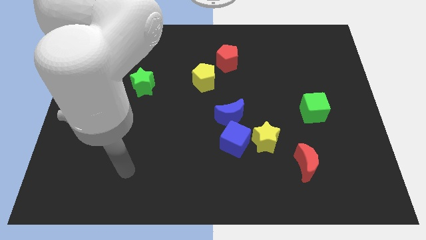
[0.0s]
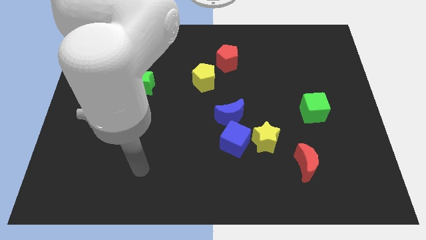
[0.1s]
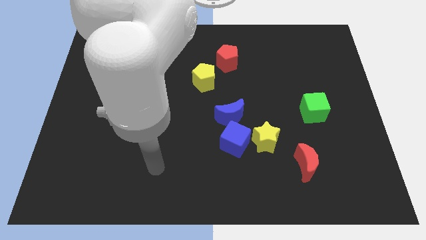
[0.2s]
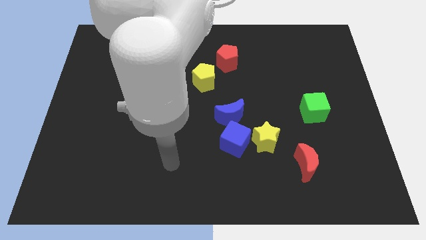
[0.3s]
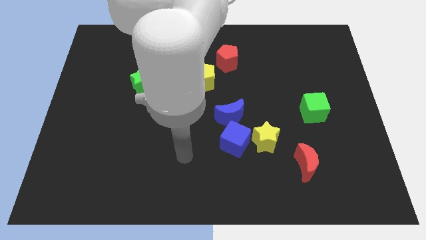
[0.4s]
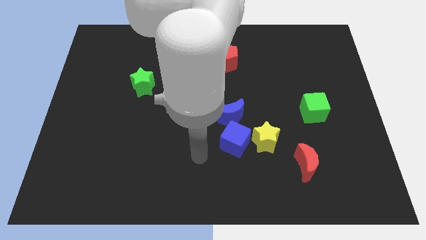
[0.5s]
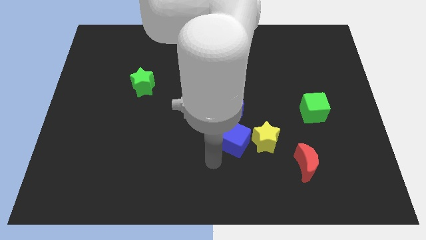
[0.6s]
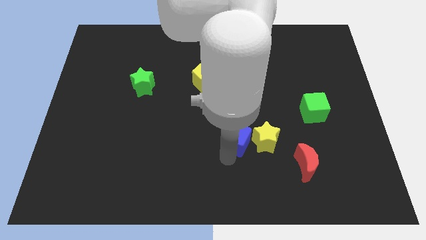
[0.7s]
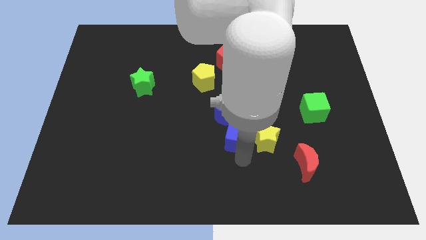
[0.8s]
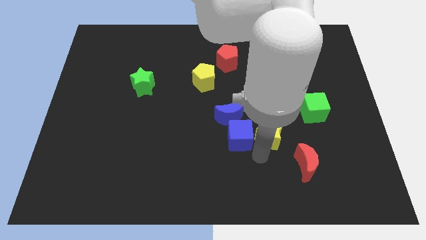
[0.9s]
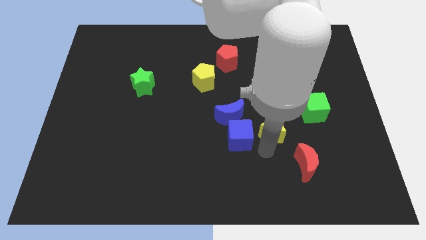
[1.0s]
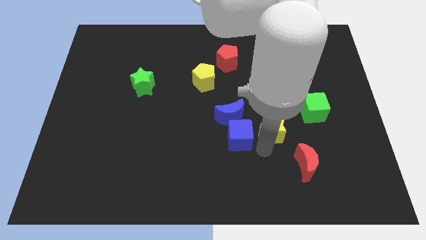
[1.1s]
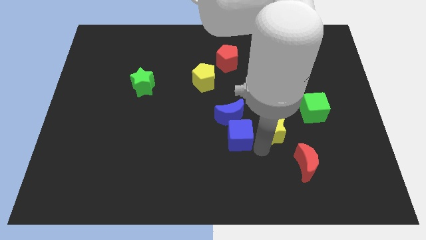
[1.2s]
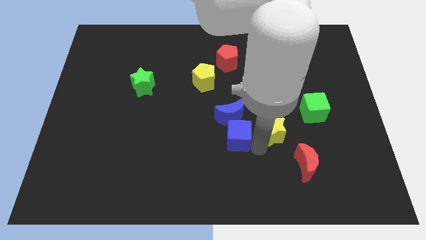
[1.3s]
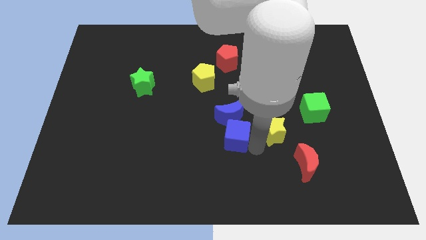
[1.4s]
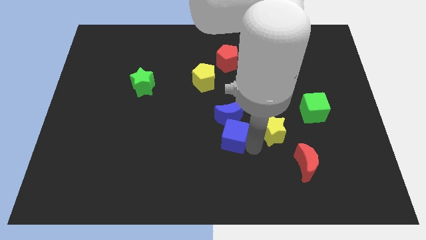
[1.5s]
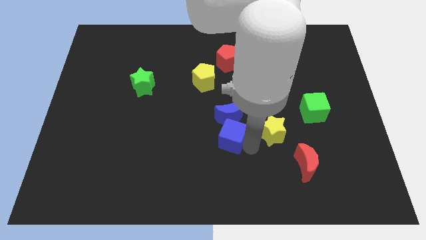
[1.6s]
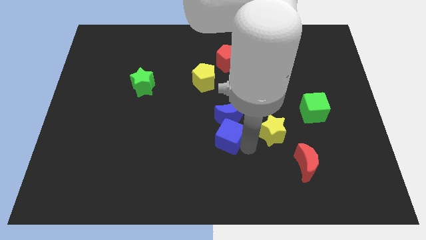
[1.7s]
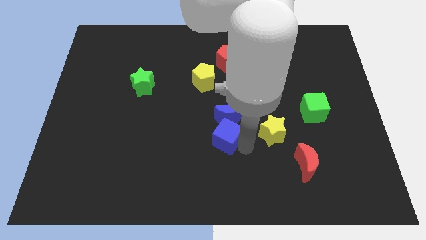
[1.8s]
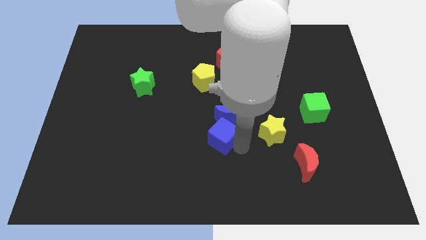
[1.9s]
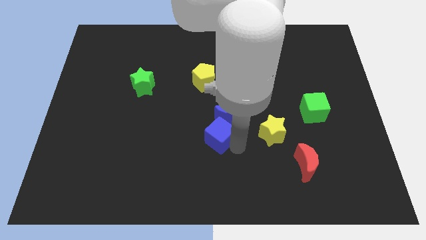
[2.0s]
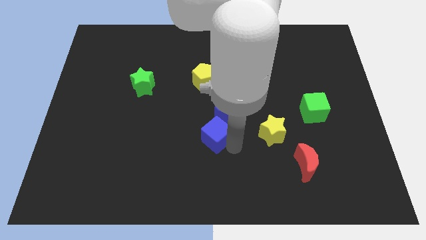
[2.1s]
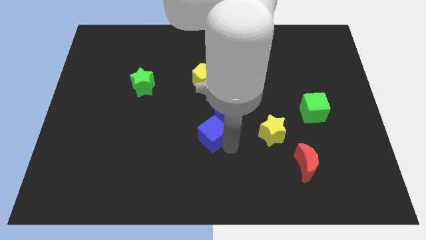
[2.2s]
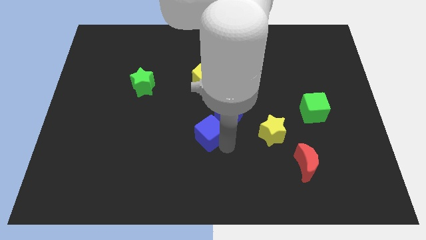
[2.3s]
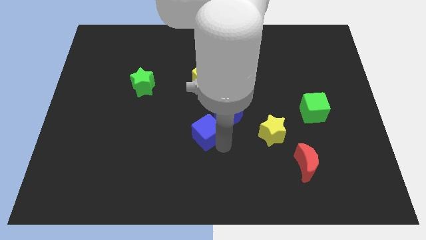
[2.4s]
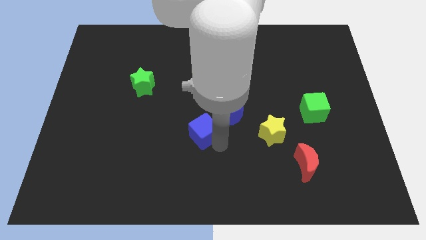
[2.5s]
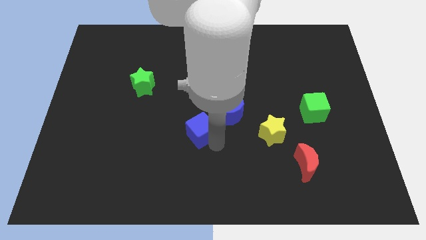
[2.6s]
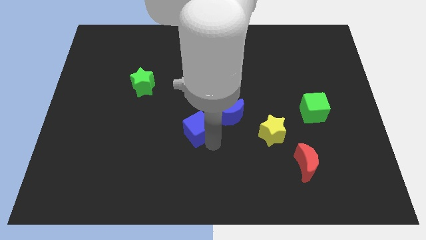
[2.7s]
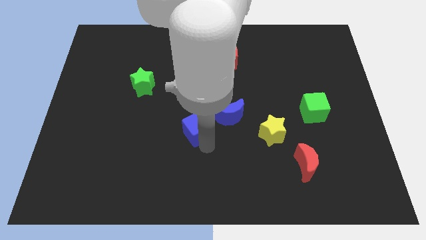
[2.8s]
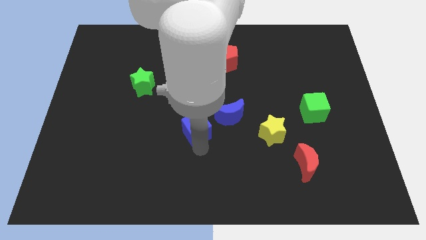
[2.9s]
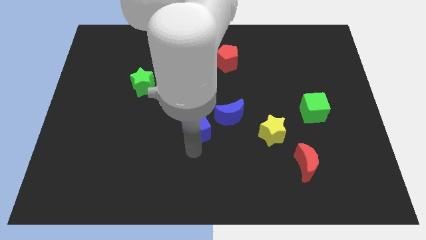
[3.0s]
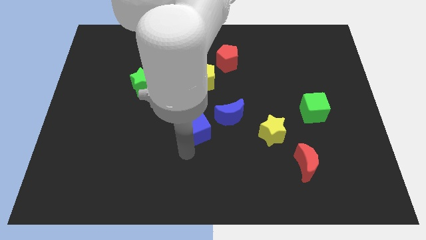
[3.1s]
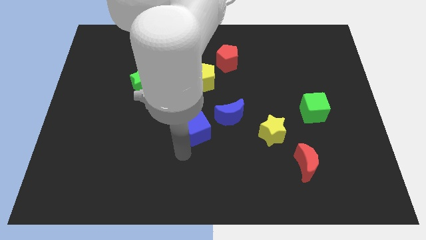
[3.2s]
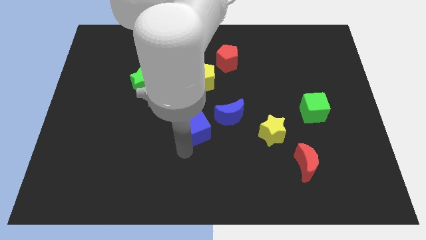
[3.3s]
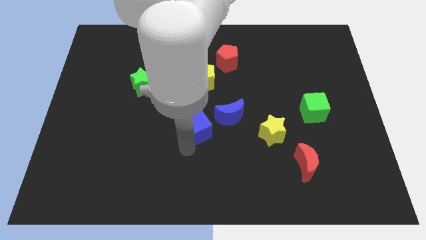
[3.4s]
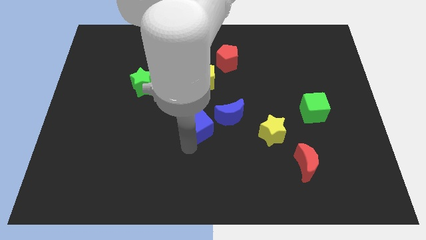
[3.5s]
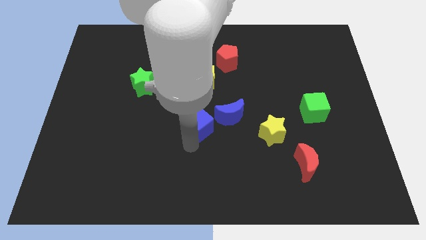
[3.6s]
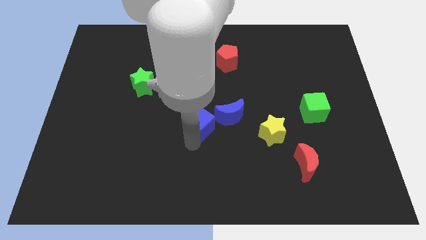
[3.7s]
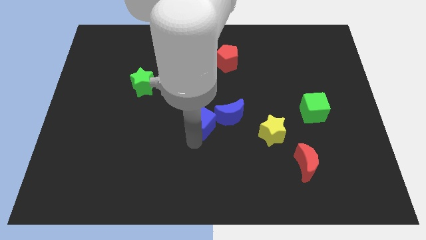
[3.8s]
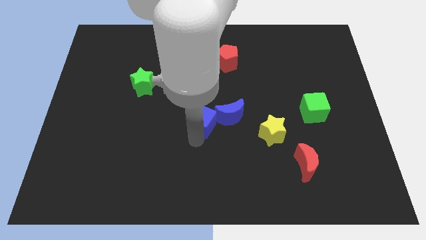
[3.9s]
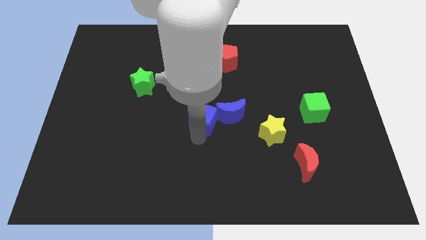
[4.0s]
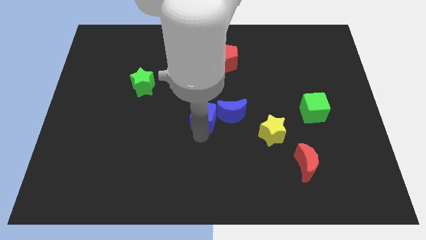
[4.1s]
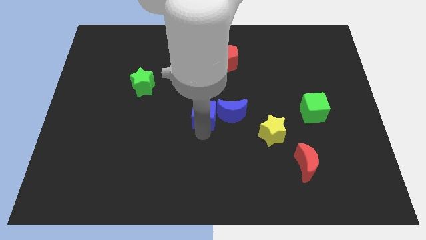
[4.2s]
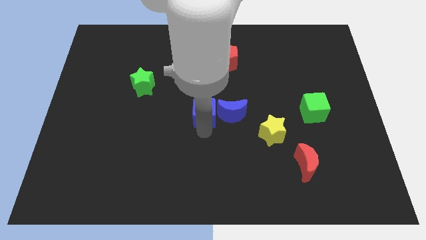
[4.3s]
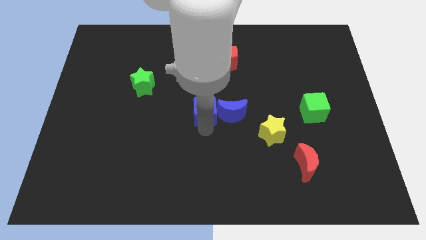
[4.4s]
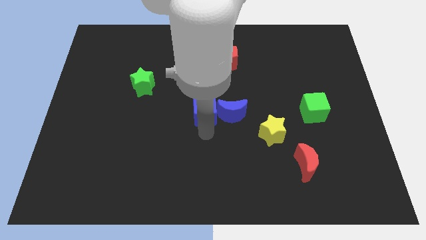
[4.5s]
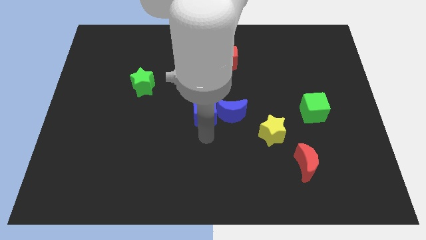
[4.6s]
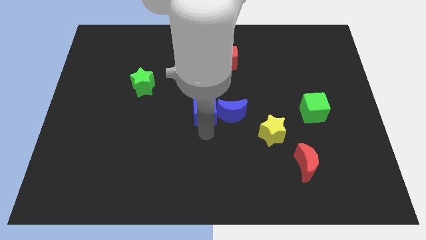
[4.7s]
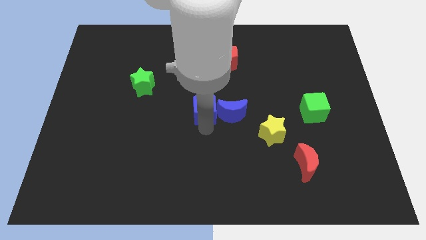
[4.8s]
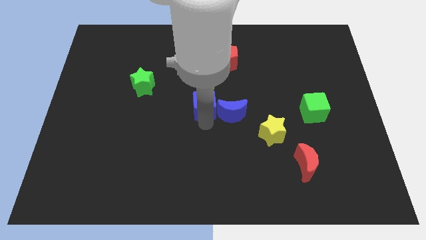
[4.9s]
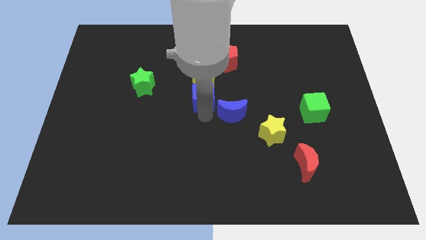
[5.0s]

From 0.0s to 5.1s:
slide the blue cube close to the yellow pentagon

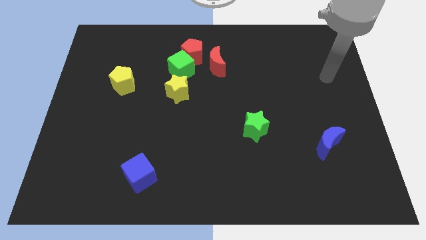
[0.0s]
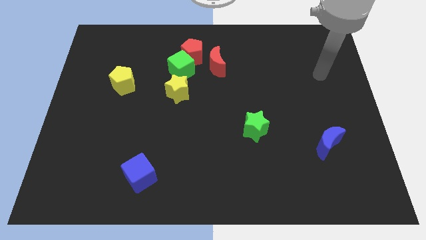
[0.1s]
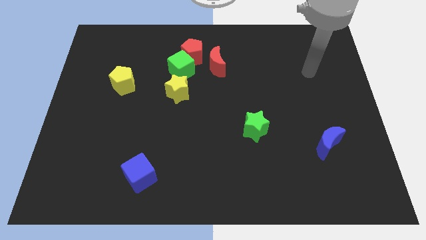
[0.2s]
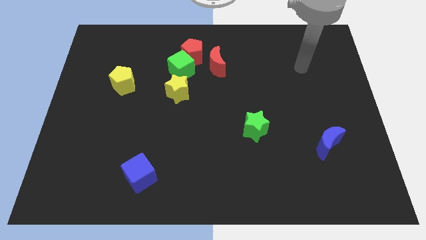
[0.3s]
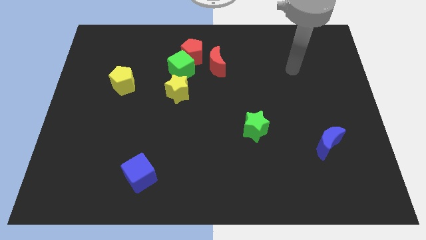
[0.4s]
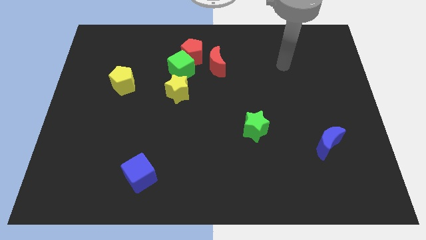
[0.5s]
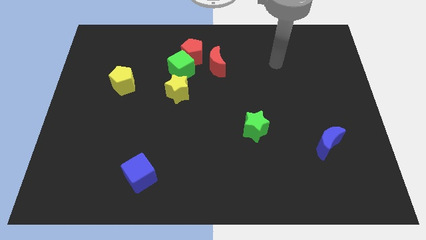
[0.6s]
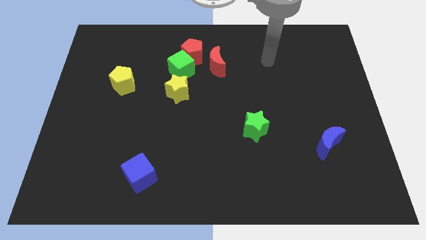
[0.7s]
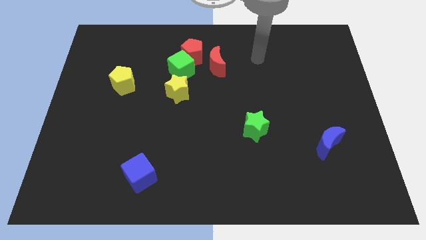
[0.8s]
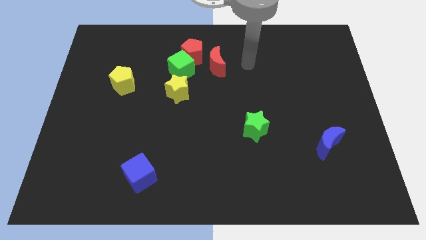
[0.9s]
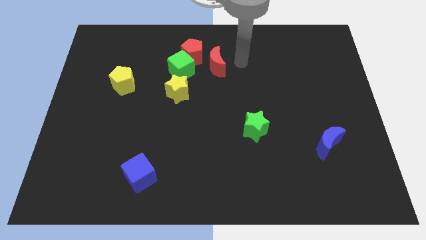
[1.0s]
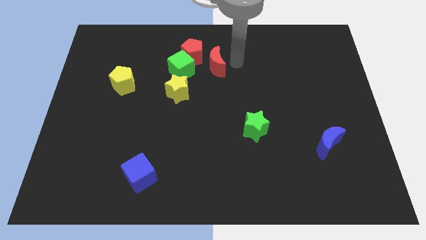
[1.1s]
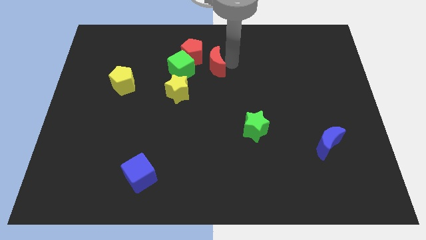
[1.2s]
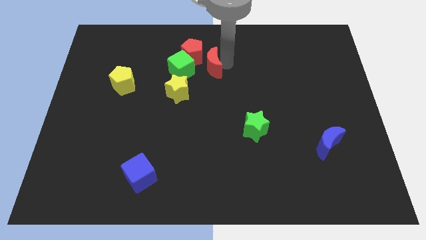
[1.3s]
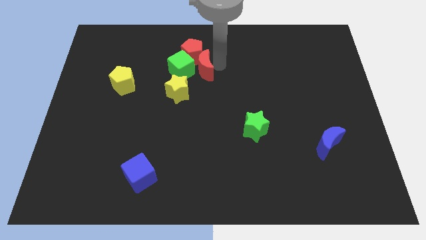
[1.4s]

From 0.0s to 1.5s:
put the red moon towards the green cube
